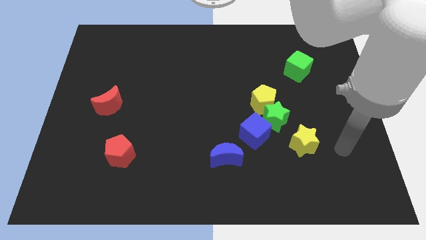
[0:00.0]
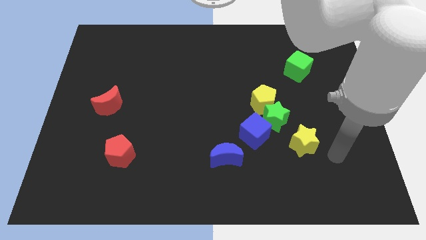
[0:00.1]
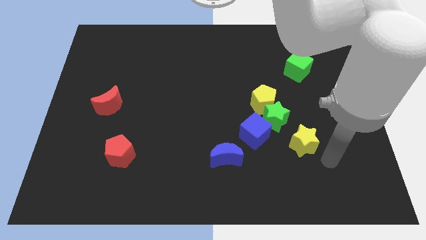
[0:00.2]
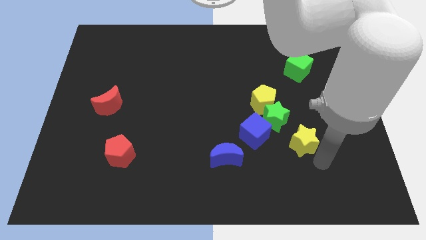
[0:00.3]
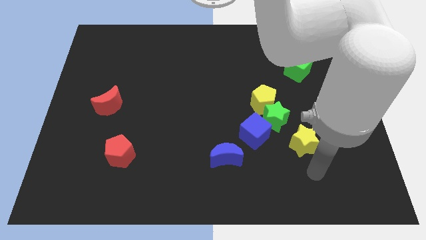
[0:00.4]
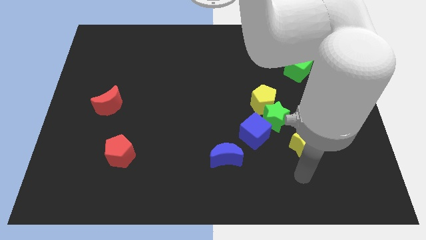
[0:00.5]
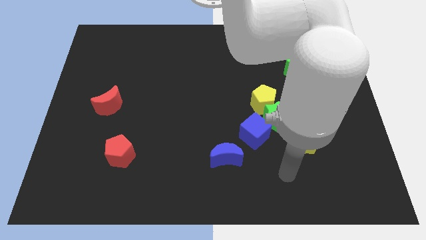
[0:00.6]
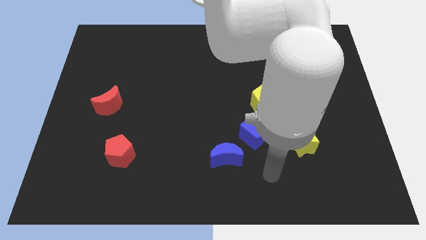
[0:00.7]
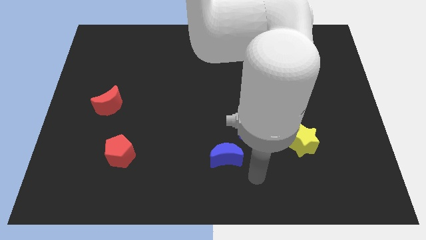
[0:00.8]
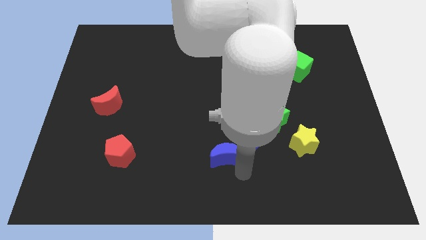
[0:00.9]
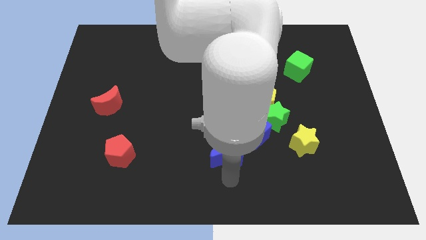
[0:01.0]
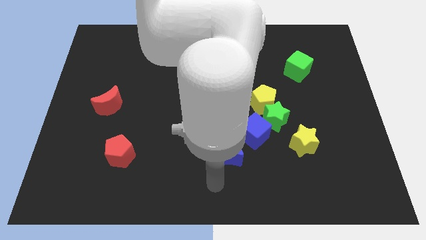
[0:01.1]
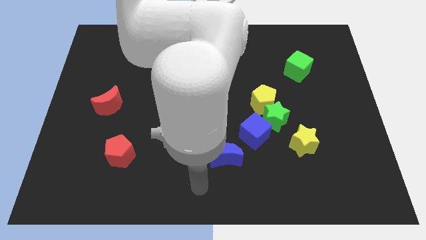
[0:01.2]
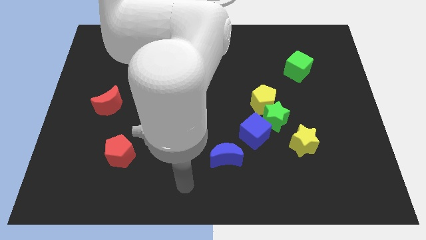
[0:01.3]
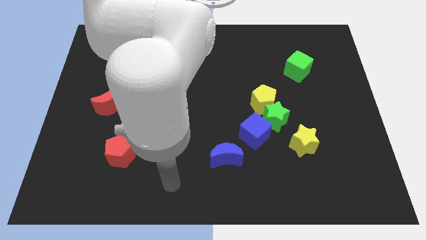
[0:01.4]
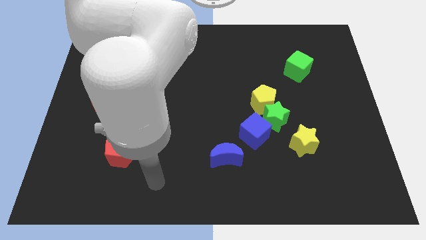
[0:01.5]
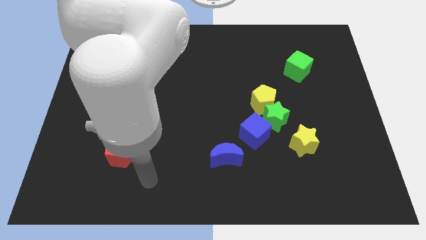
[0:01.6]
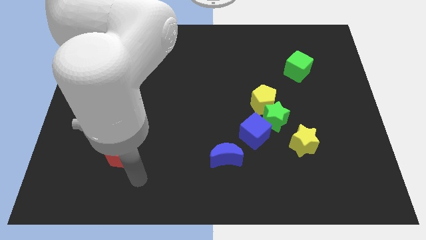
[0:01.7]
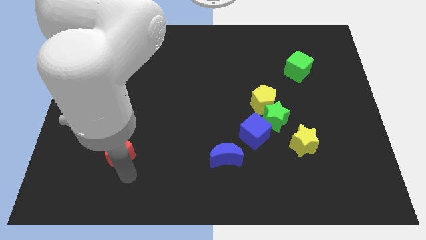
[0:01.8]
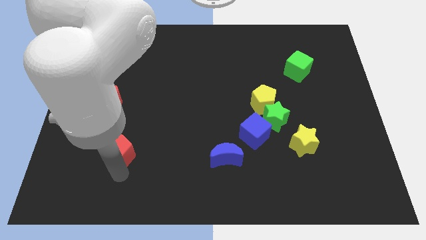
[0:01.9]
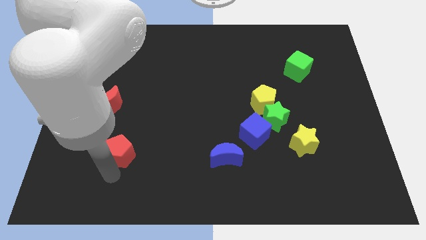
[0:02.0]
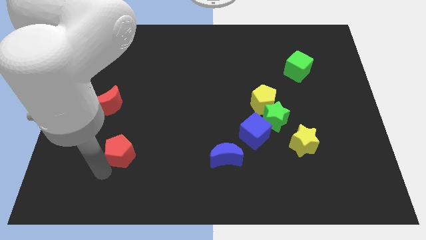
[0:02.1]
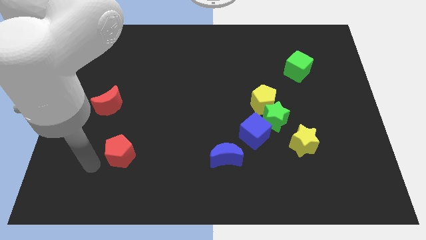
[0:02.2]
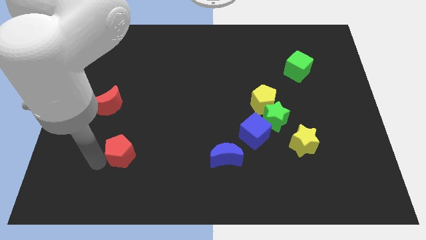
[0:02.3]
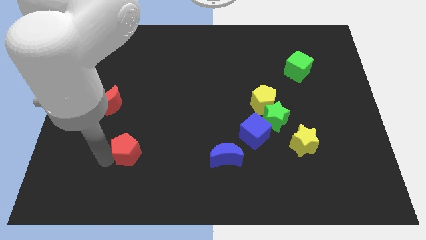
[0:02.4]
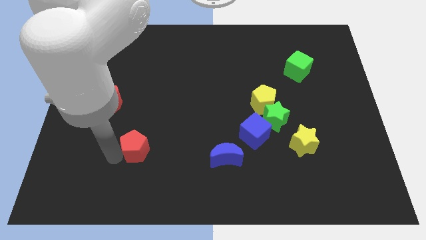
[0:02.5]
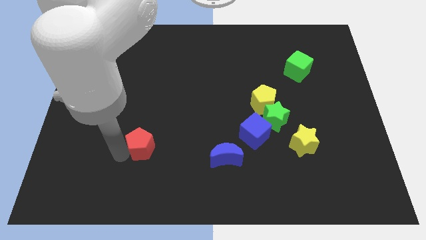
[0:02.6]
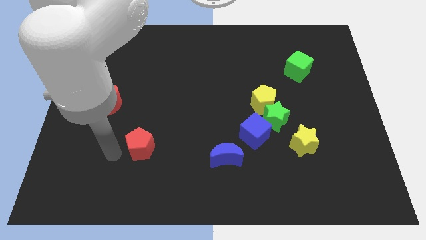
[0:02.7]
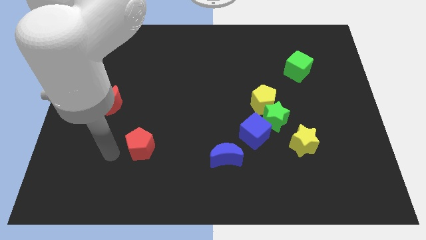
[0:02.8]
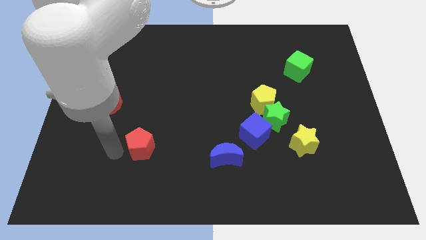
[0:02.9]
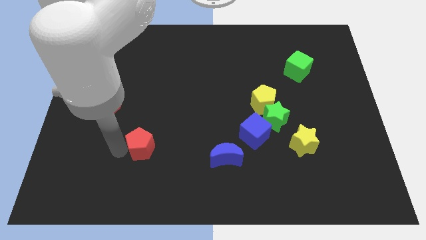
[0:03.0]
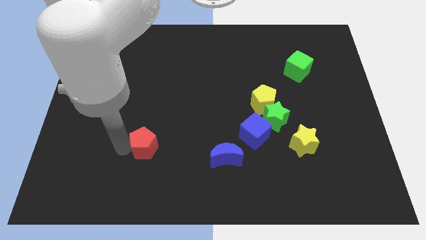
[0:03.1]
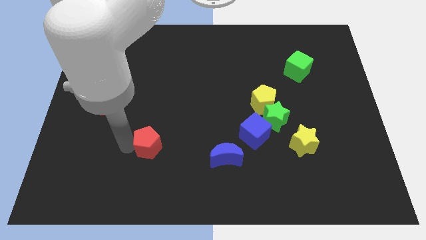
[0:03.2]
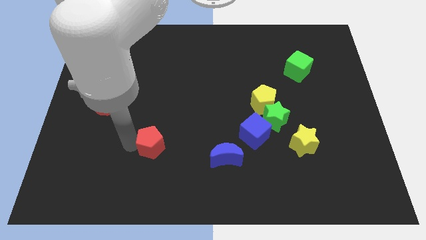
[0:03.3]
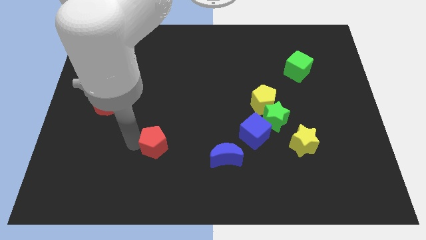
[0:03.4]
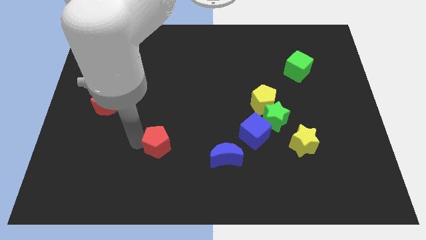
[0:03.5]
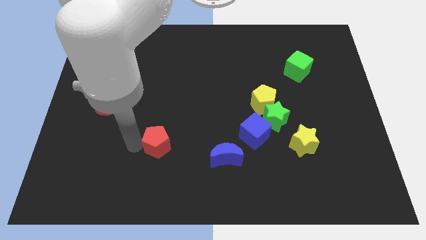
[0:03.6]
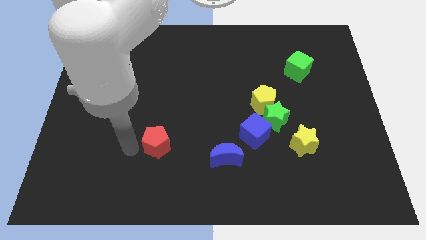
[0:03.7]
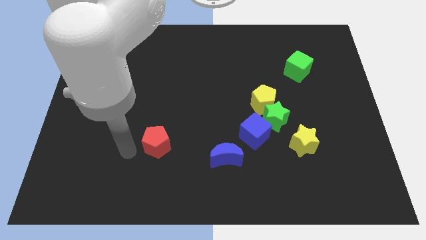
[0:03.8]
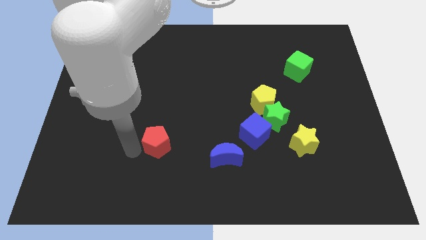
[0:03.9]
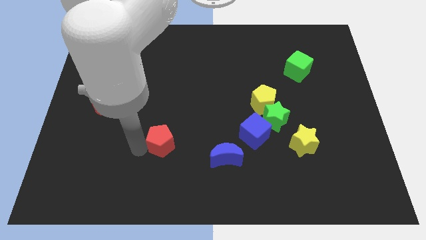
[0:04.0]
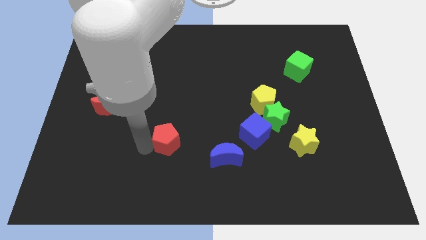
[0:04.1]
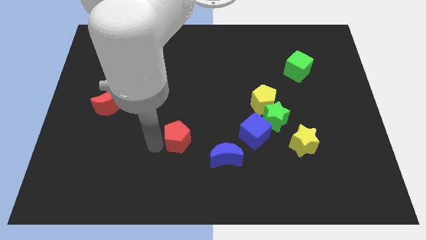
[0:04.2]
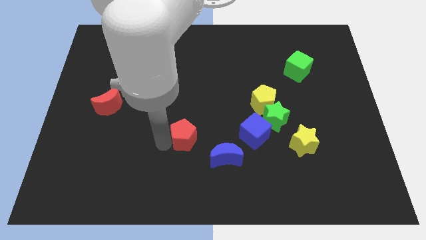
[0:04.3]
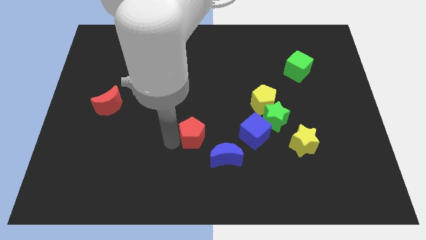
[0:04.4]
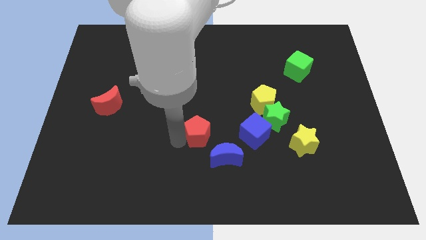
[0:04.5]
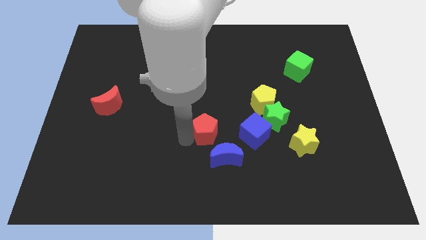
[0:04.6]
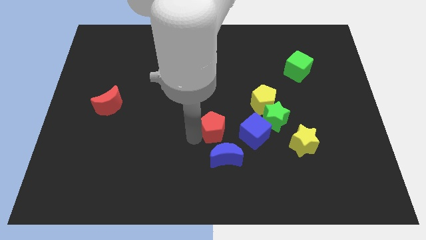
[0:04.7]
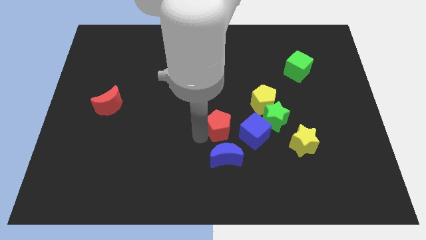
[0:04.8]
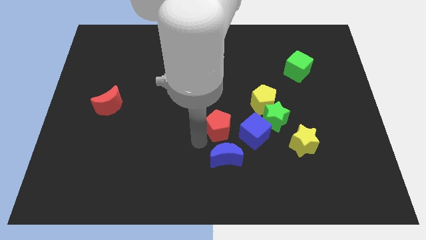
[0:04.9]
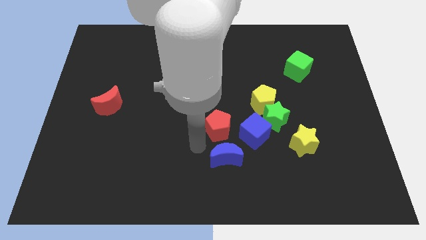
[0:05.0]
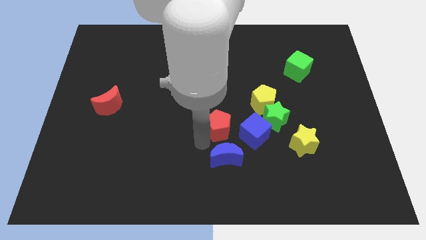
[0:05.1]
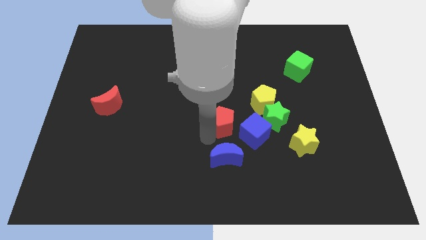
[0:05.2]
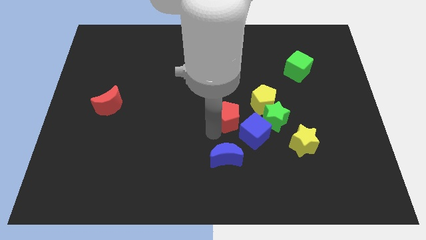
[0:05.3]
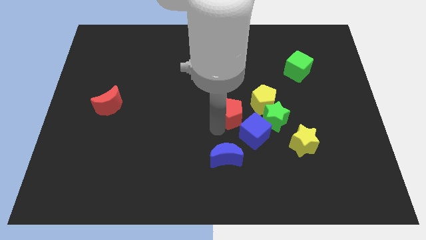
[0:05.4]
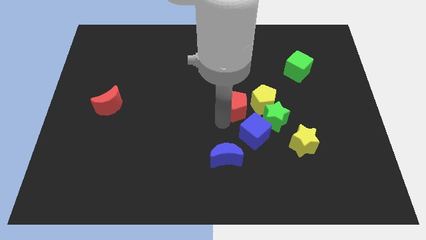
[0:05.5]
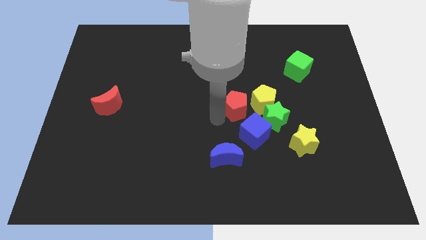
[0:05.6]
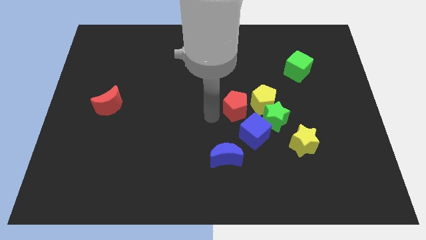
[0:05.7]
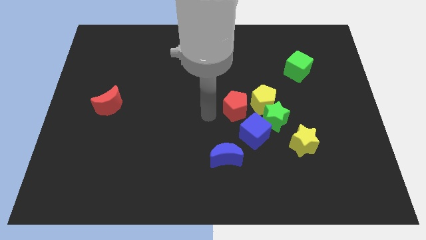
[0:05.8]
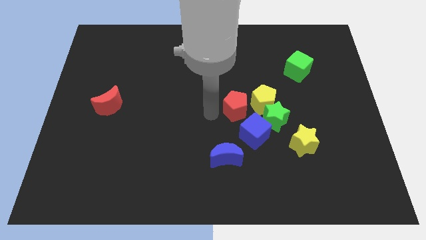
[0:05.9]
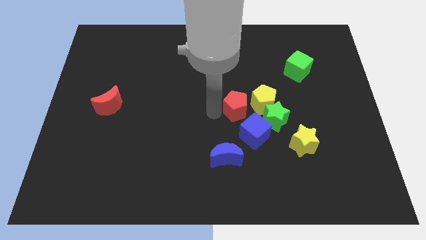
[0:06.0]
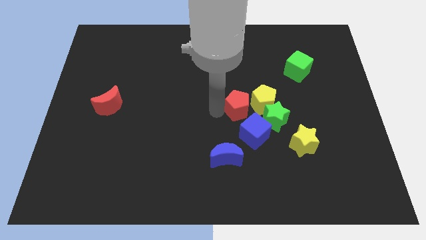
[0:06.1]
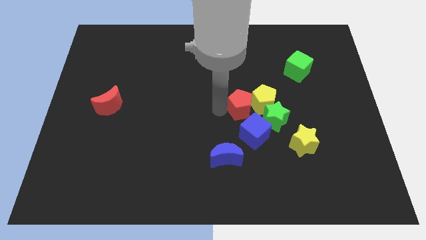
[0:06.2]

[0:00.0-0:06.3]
move the red pentagon close to the yellow pentagon

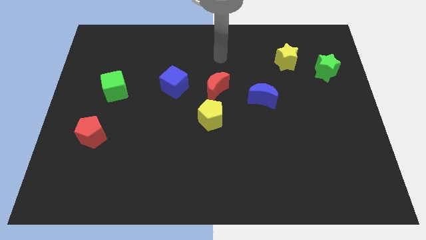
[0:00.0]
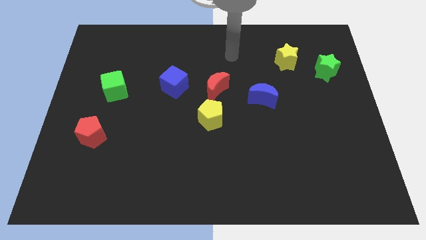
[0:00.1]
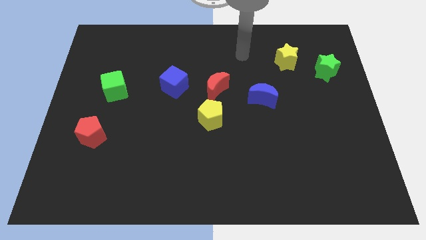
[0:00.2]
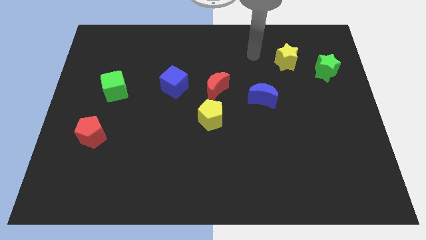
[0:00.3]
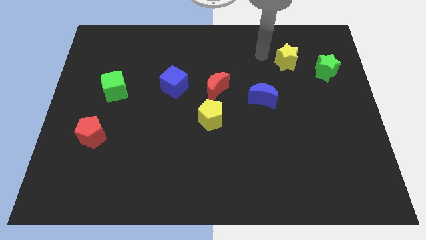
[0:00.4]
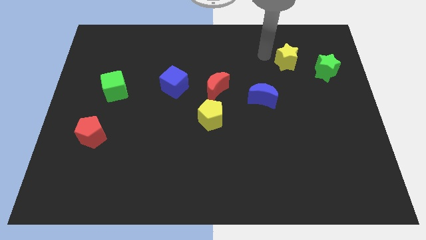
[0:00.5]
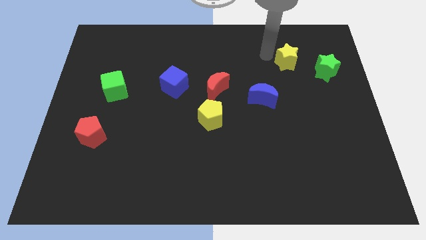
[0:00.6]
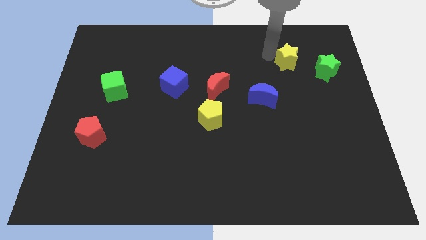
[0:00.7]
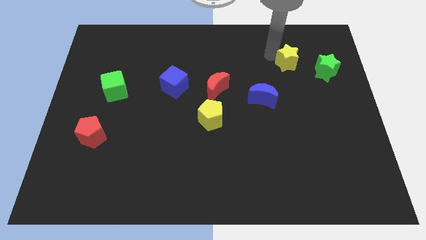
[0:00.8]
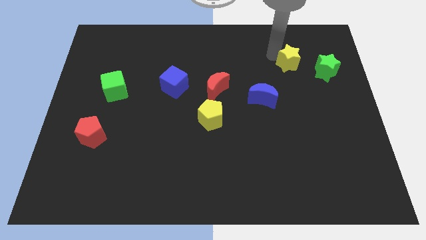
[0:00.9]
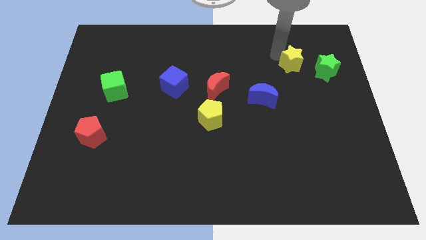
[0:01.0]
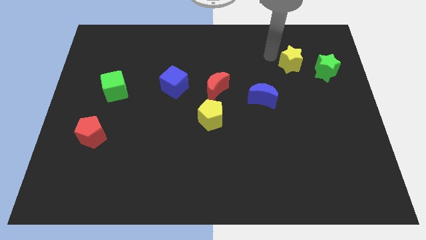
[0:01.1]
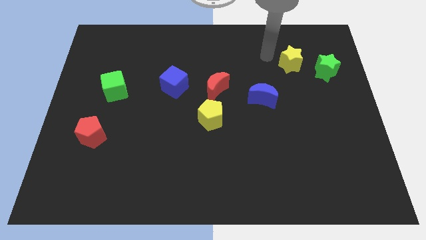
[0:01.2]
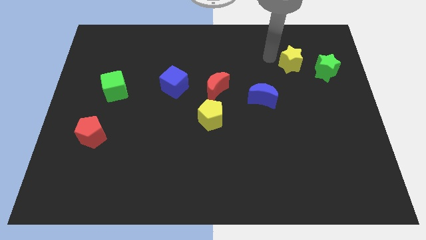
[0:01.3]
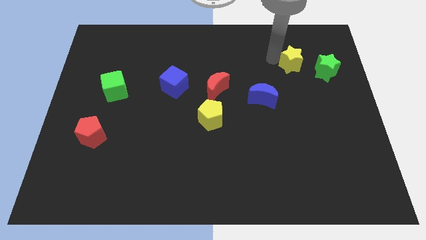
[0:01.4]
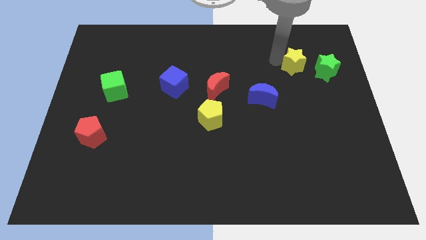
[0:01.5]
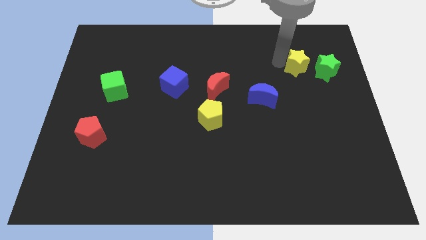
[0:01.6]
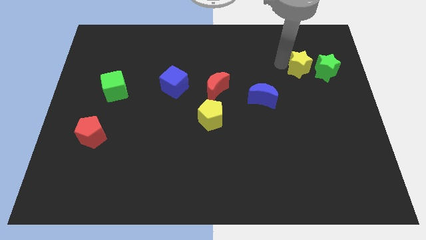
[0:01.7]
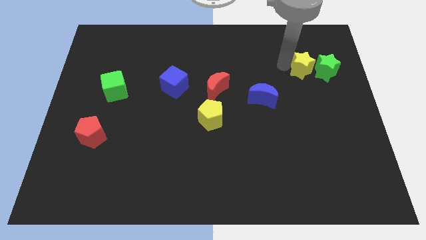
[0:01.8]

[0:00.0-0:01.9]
move the yellow star next to the green star
